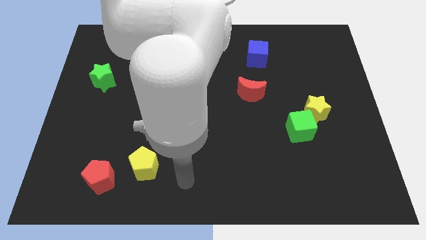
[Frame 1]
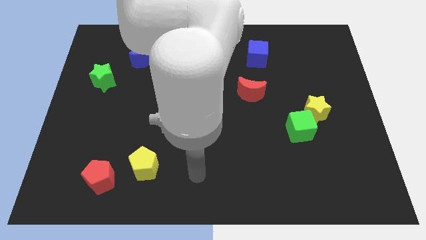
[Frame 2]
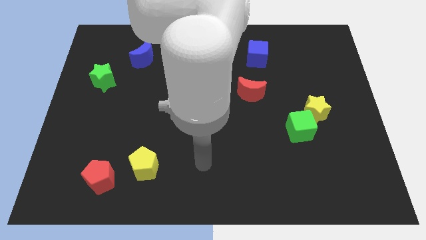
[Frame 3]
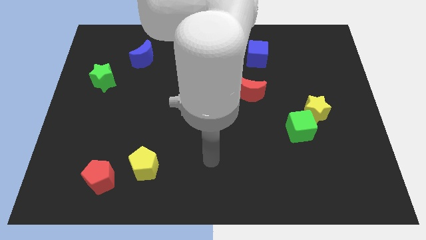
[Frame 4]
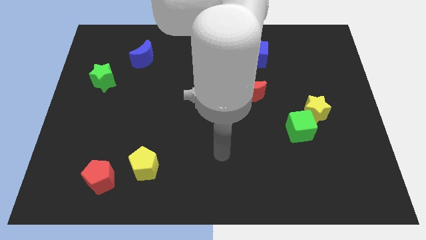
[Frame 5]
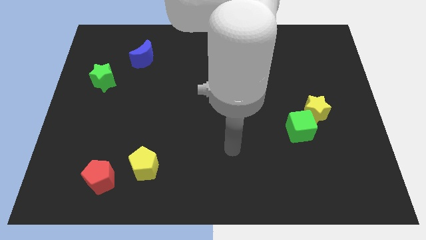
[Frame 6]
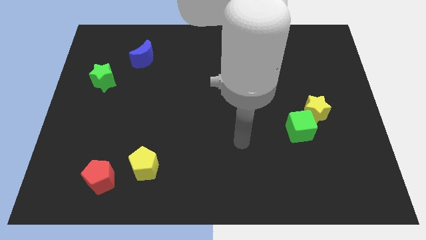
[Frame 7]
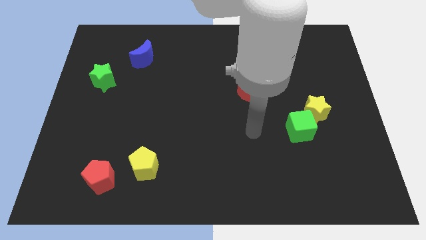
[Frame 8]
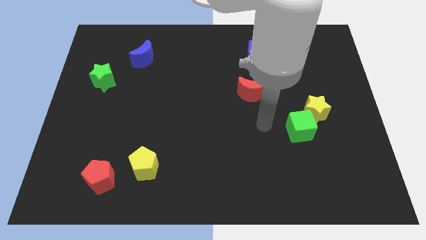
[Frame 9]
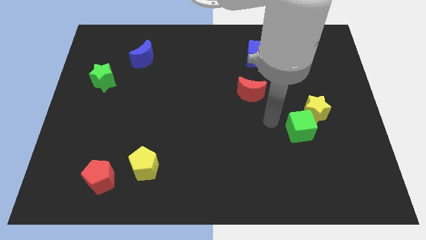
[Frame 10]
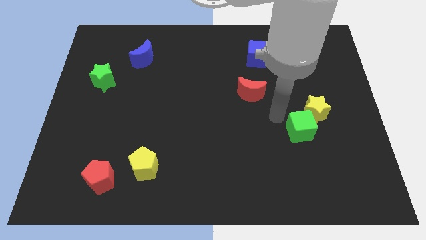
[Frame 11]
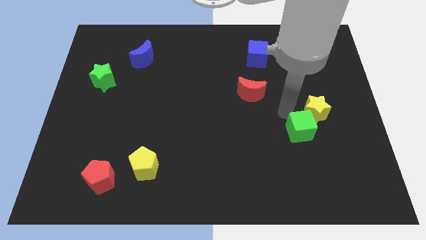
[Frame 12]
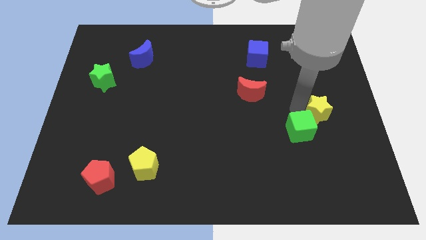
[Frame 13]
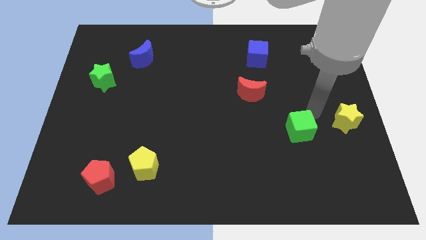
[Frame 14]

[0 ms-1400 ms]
move the green cube away from the yellow star

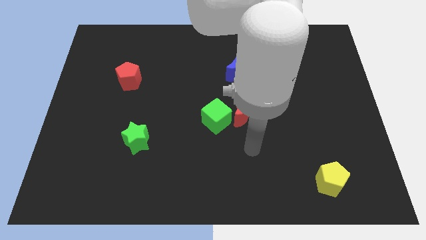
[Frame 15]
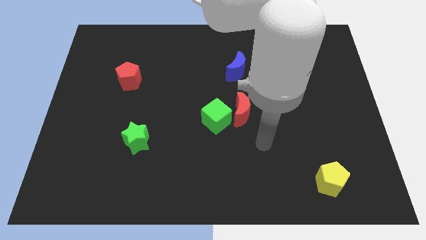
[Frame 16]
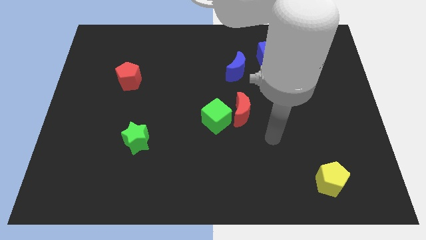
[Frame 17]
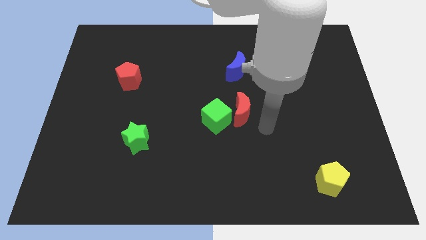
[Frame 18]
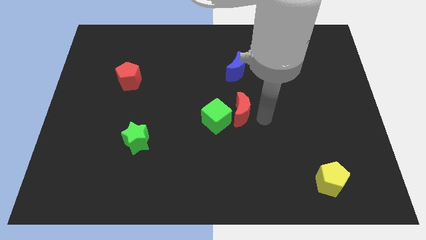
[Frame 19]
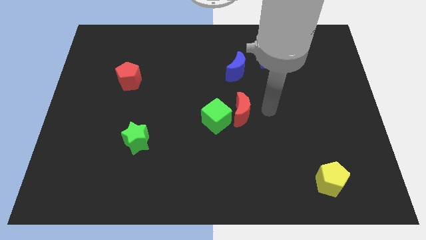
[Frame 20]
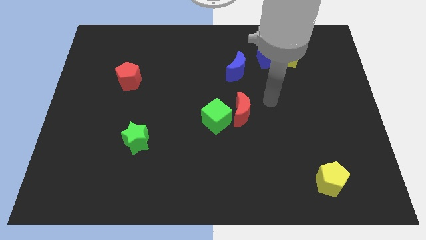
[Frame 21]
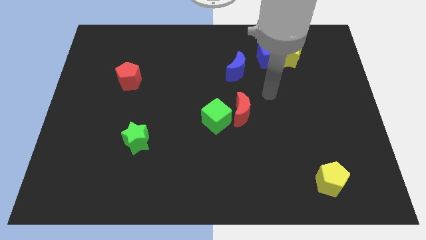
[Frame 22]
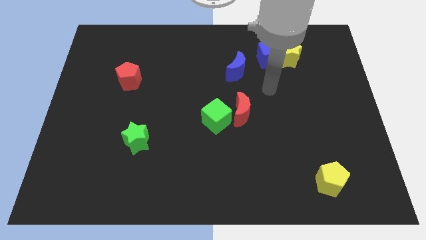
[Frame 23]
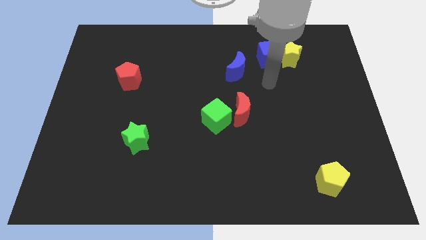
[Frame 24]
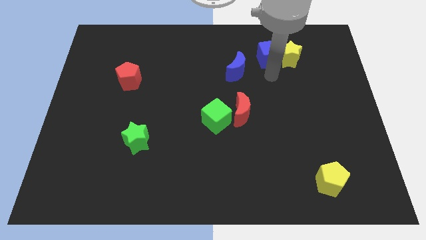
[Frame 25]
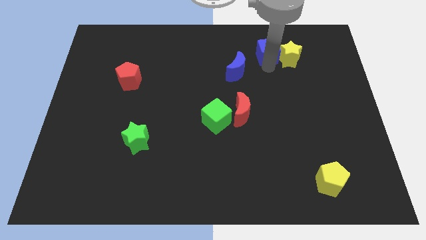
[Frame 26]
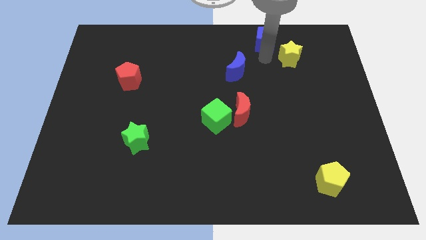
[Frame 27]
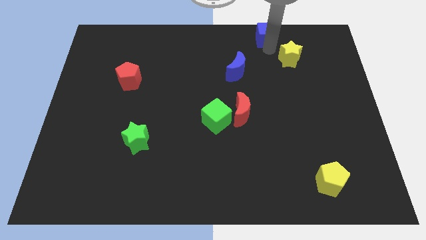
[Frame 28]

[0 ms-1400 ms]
move the yellow star away from the blue cube

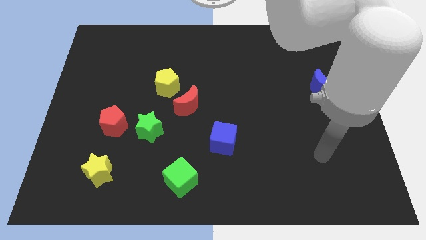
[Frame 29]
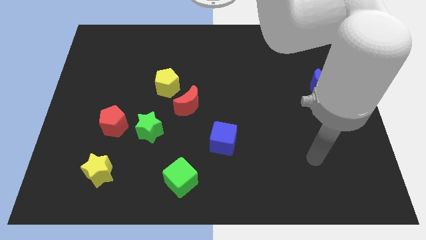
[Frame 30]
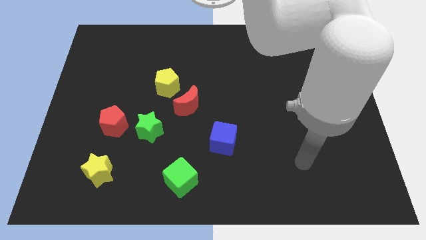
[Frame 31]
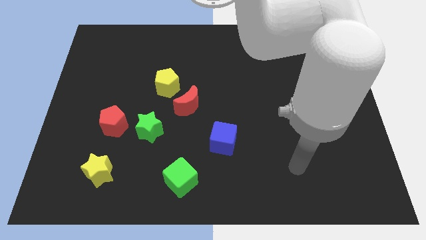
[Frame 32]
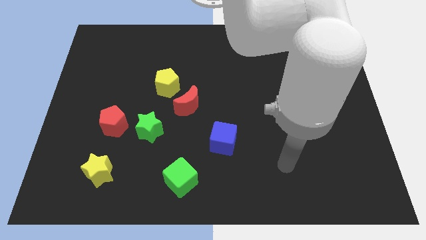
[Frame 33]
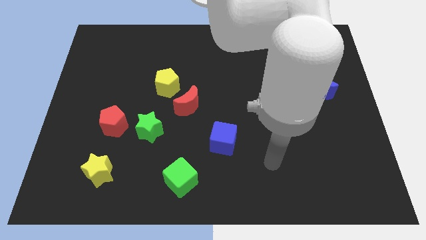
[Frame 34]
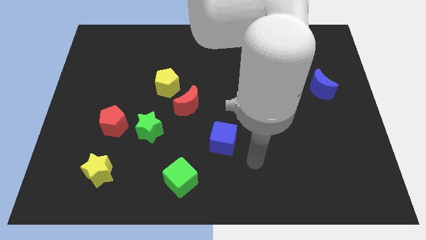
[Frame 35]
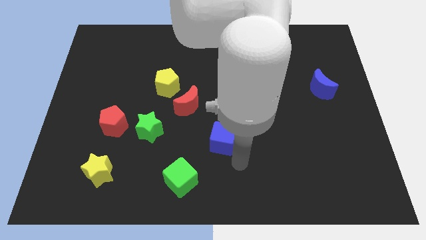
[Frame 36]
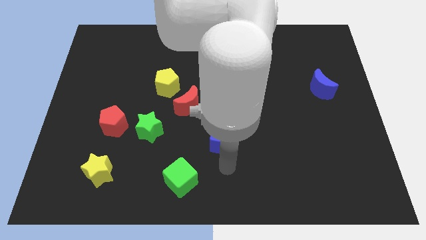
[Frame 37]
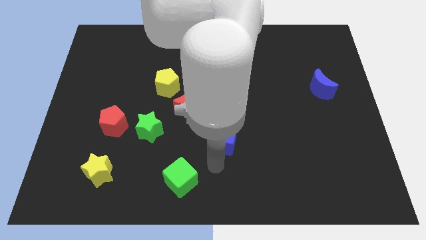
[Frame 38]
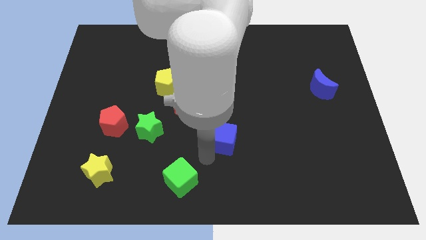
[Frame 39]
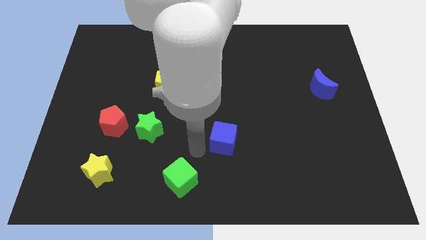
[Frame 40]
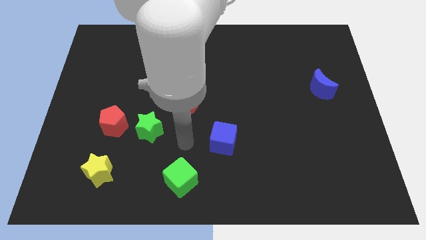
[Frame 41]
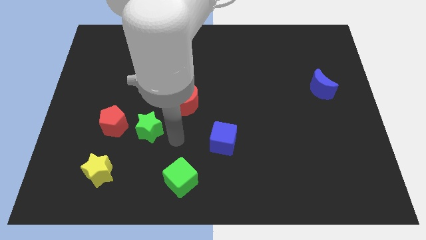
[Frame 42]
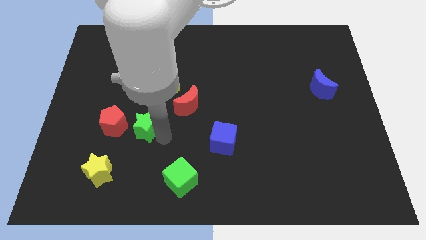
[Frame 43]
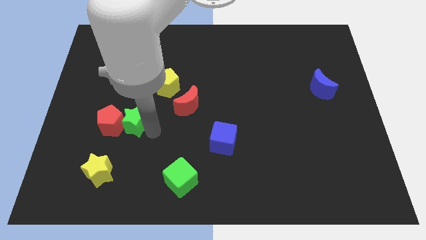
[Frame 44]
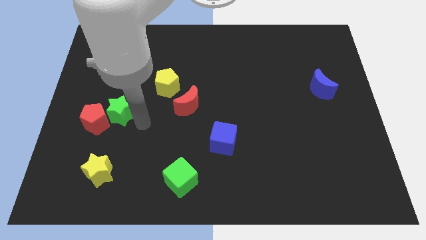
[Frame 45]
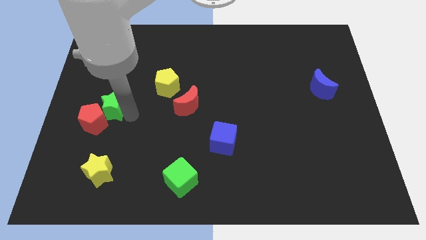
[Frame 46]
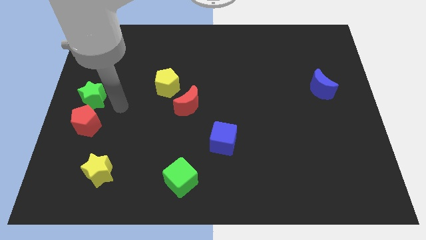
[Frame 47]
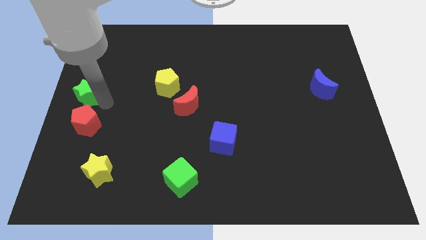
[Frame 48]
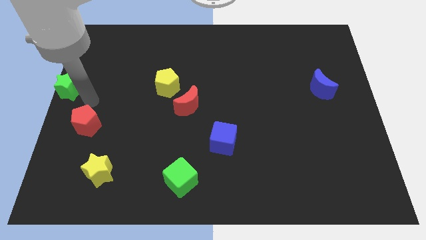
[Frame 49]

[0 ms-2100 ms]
move the red pentagon away from the green star

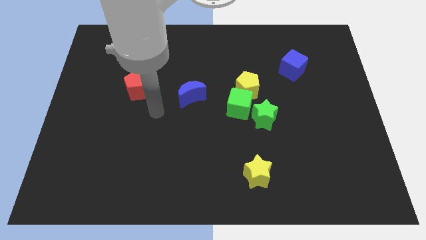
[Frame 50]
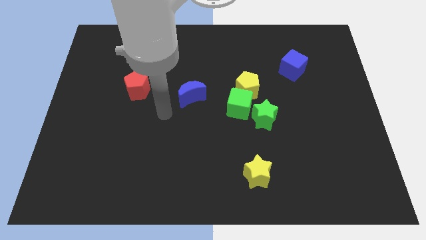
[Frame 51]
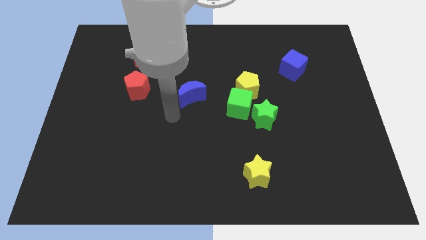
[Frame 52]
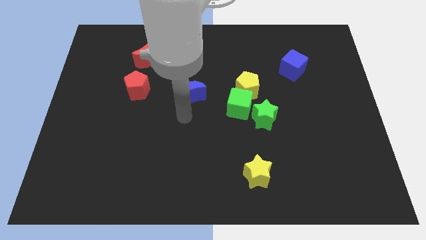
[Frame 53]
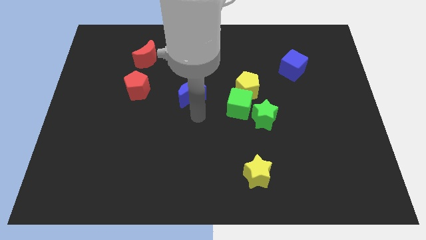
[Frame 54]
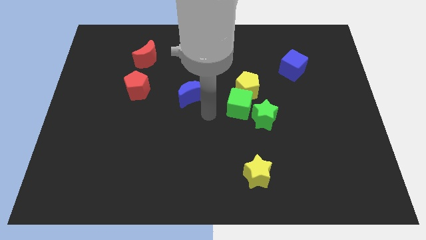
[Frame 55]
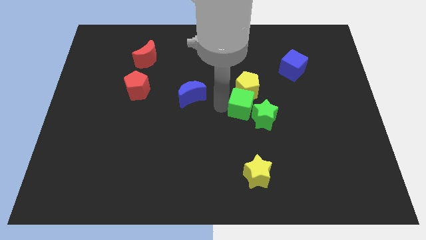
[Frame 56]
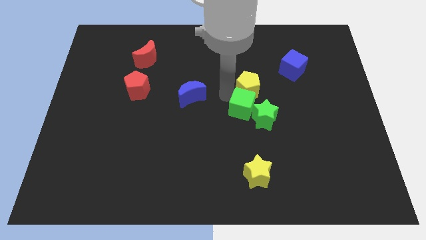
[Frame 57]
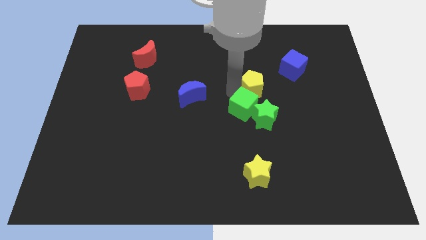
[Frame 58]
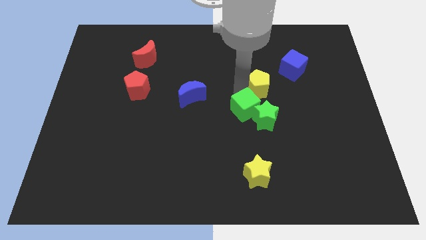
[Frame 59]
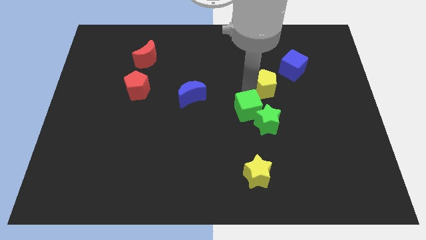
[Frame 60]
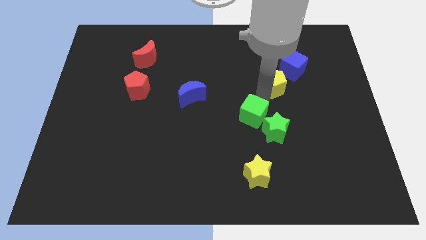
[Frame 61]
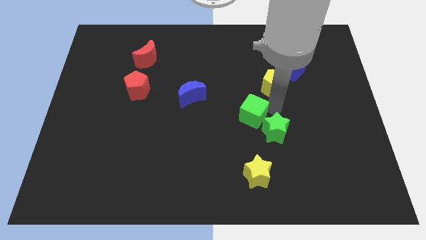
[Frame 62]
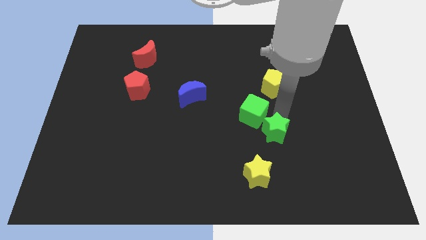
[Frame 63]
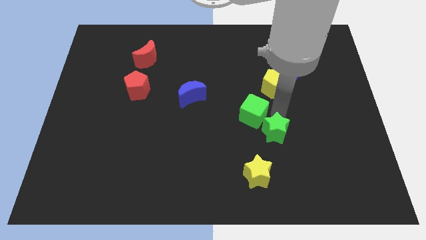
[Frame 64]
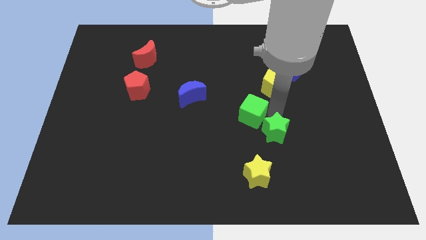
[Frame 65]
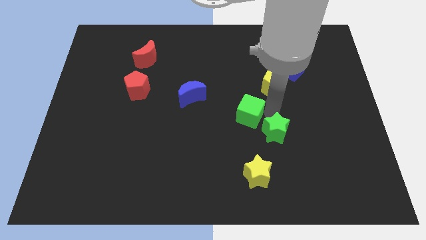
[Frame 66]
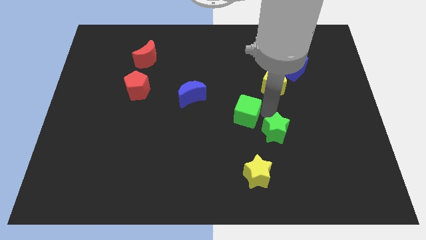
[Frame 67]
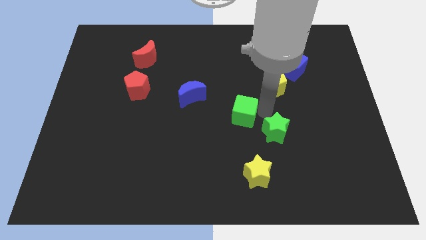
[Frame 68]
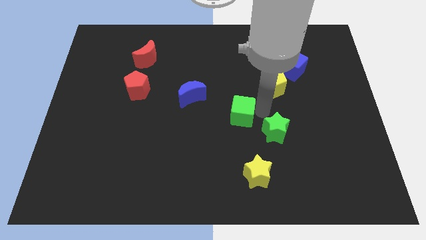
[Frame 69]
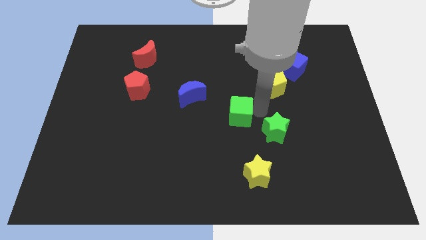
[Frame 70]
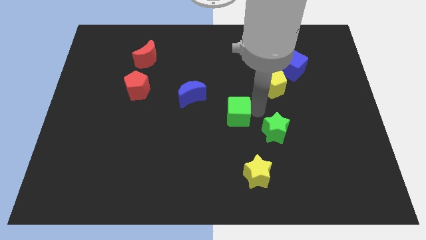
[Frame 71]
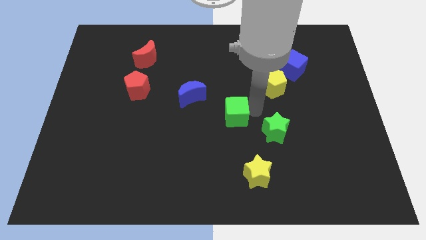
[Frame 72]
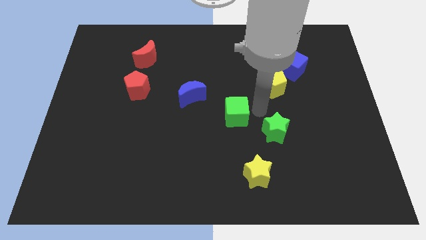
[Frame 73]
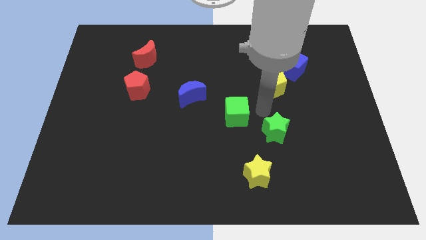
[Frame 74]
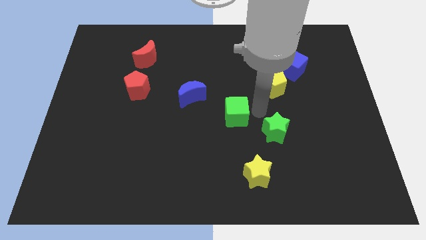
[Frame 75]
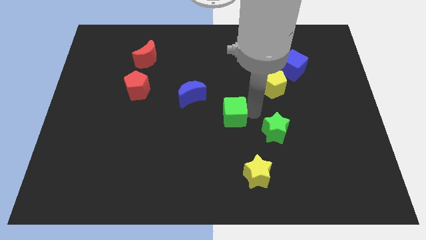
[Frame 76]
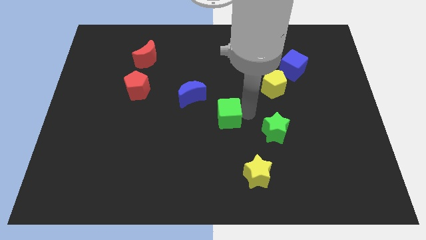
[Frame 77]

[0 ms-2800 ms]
move the green cube away from the yellow pentagon and green star

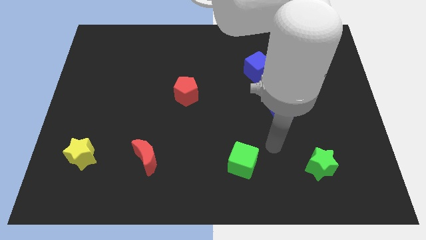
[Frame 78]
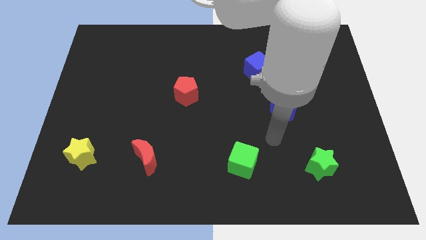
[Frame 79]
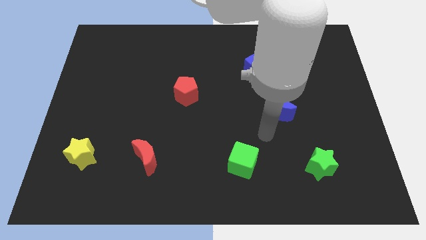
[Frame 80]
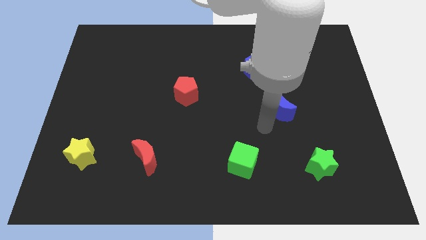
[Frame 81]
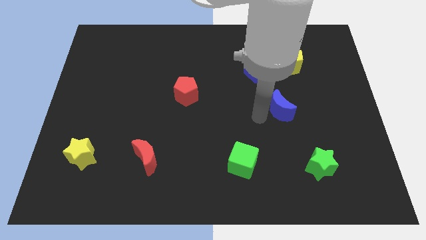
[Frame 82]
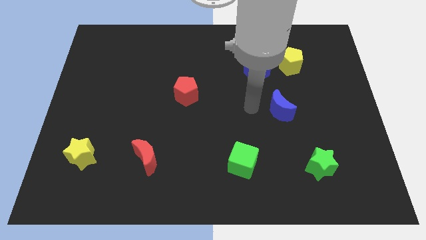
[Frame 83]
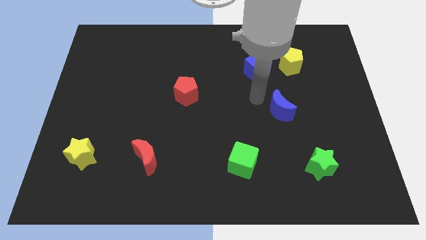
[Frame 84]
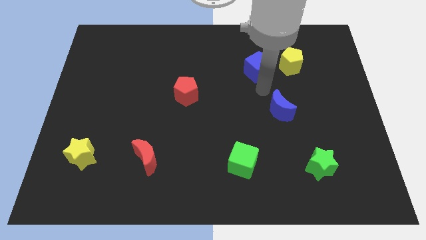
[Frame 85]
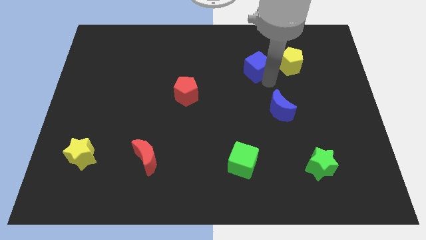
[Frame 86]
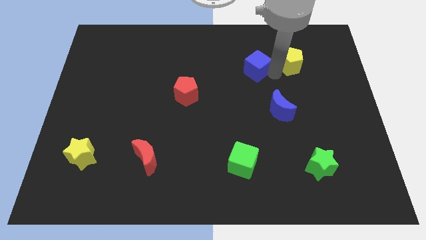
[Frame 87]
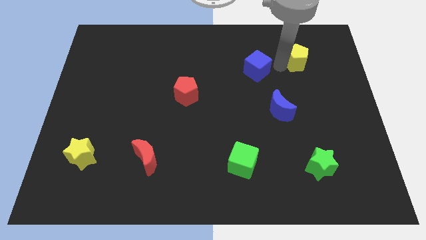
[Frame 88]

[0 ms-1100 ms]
separate the blue cube from the yellow pentagon

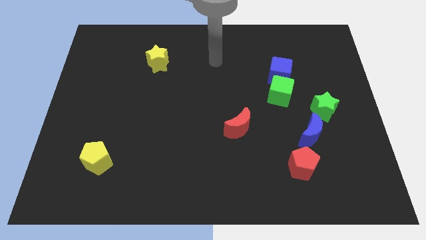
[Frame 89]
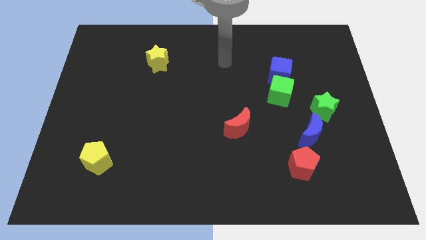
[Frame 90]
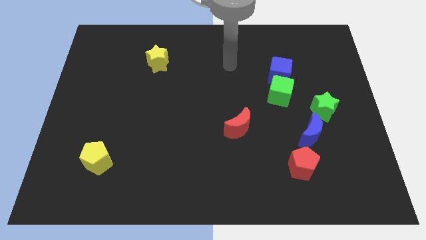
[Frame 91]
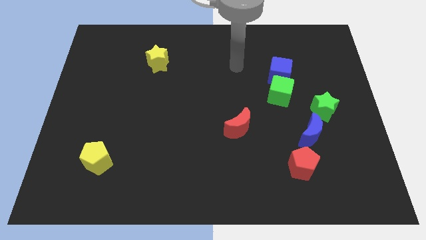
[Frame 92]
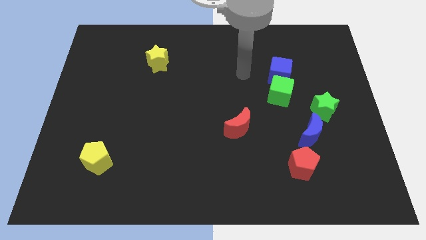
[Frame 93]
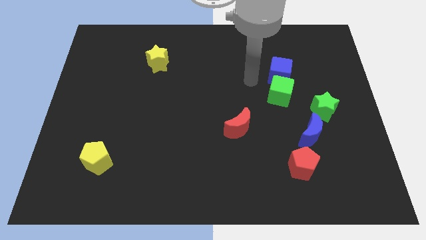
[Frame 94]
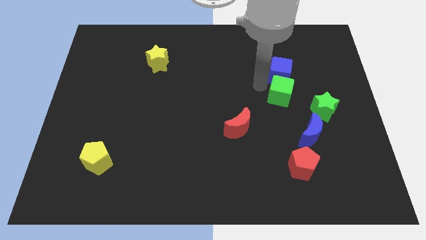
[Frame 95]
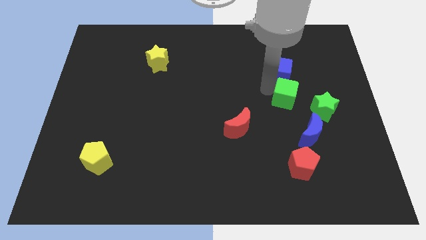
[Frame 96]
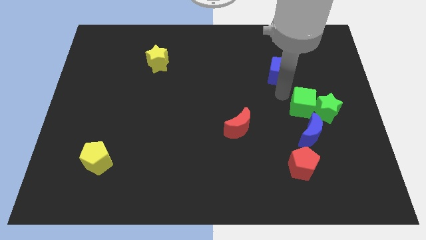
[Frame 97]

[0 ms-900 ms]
pull the blue cube apart from the green cube
